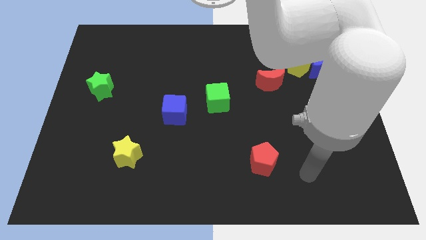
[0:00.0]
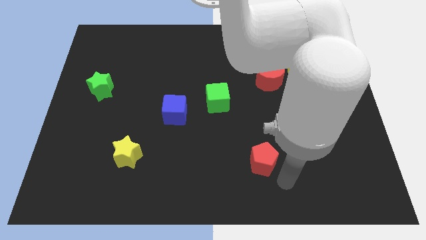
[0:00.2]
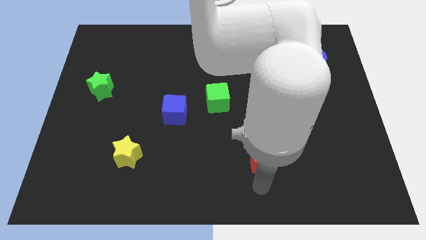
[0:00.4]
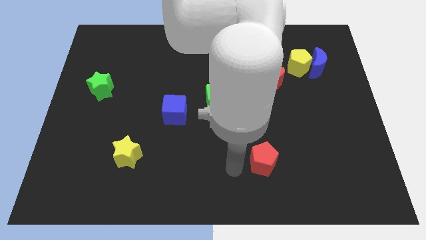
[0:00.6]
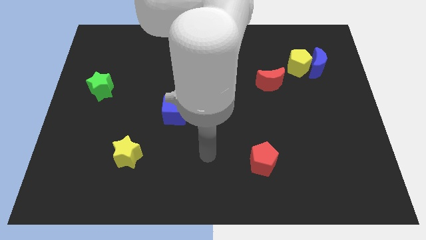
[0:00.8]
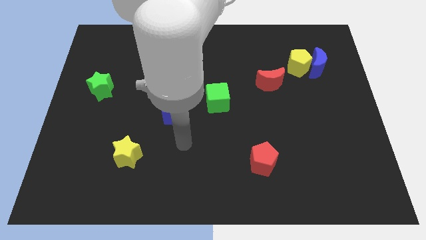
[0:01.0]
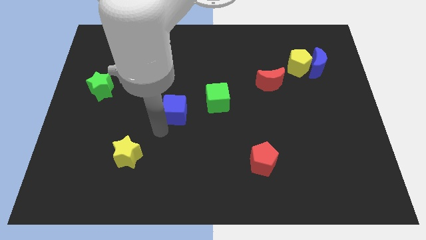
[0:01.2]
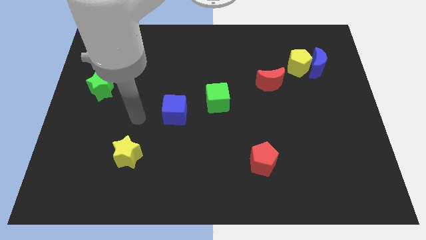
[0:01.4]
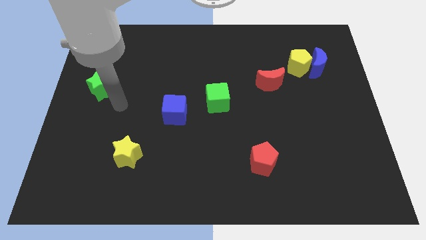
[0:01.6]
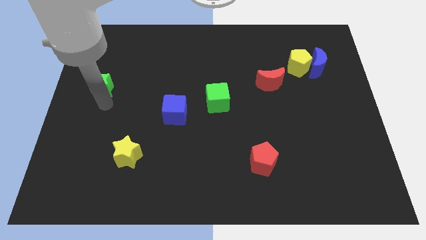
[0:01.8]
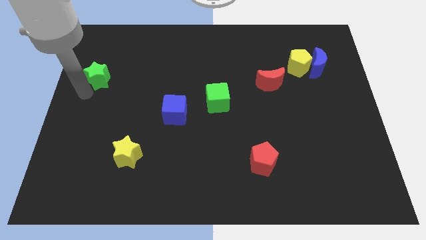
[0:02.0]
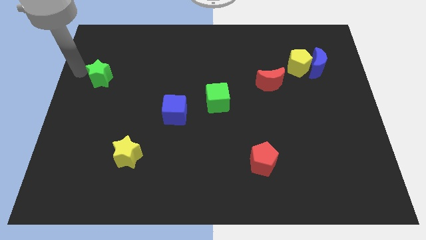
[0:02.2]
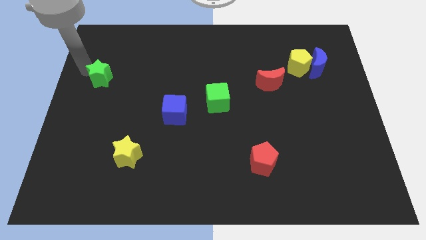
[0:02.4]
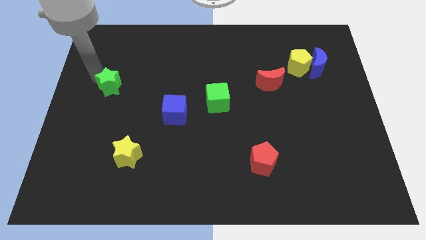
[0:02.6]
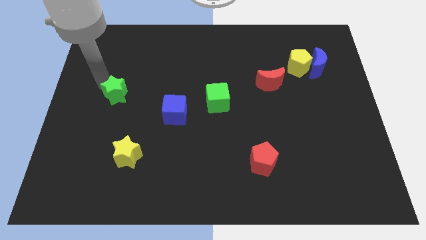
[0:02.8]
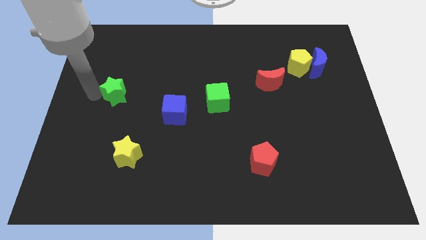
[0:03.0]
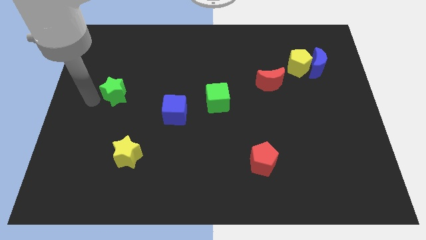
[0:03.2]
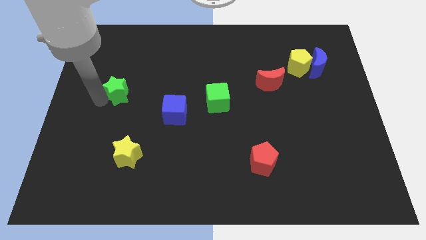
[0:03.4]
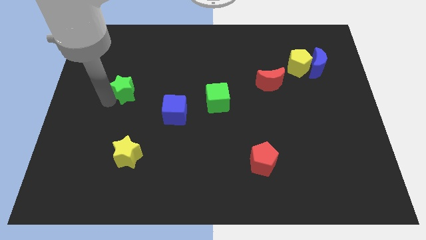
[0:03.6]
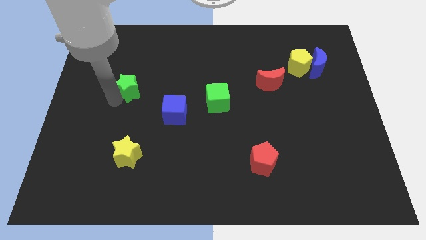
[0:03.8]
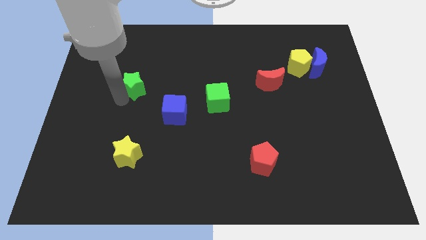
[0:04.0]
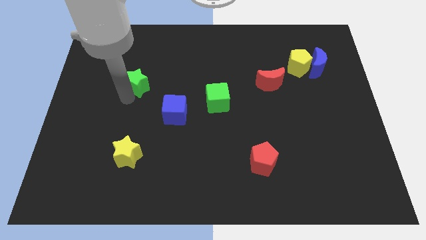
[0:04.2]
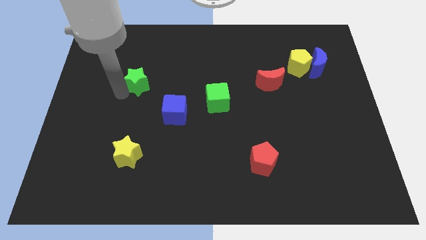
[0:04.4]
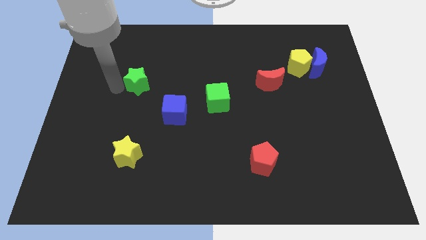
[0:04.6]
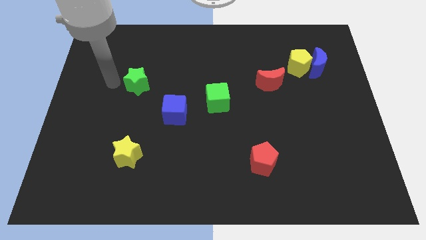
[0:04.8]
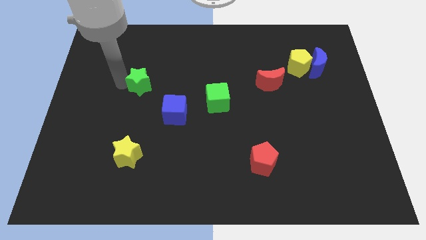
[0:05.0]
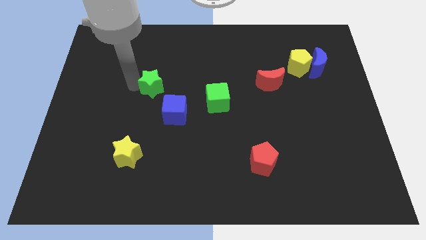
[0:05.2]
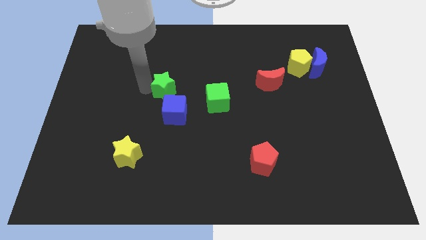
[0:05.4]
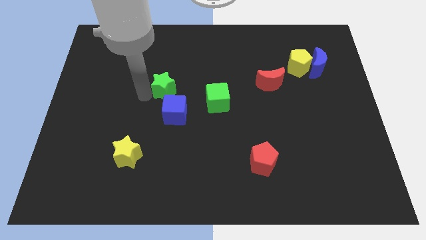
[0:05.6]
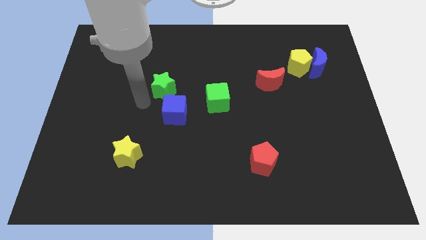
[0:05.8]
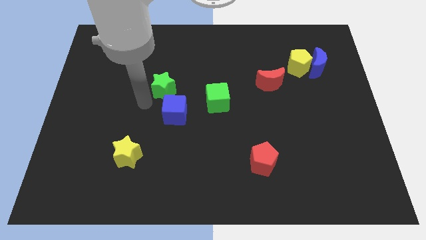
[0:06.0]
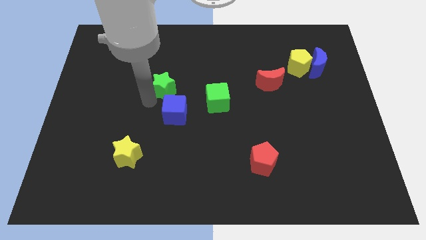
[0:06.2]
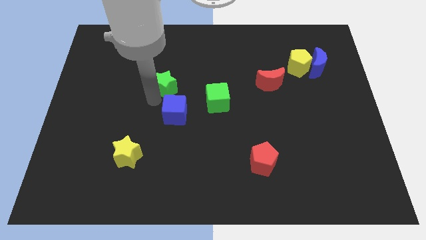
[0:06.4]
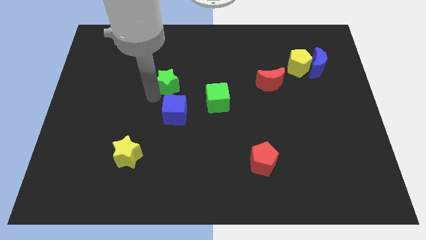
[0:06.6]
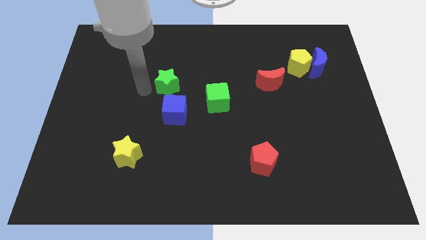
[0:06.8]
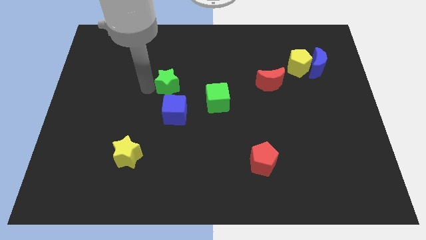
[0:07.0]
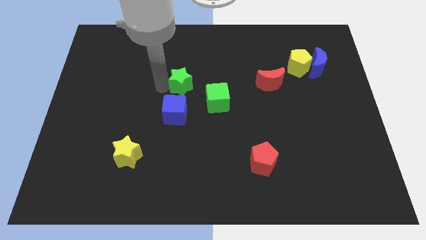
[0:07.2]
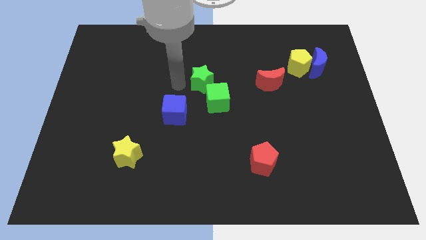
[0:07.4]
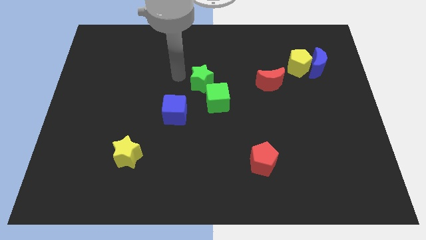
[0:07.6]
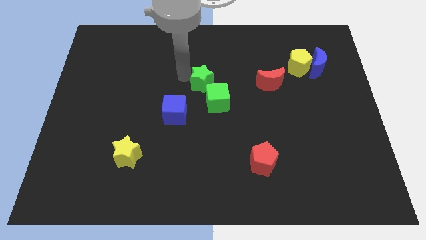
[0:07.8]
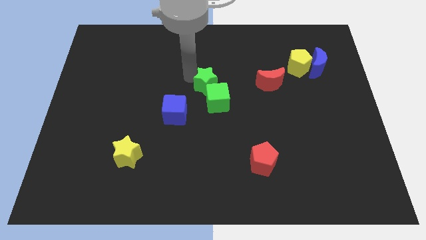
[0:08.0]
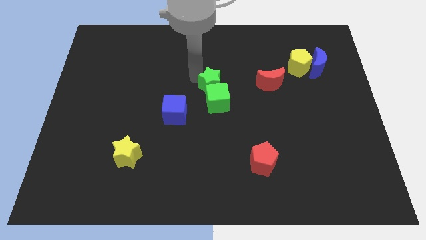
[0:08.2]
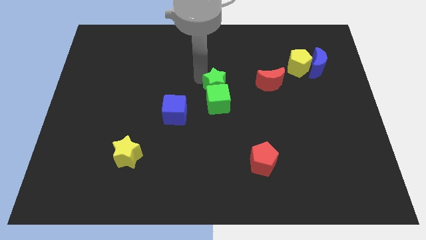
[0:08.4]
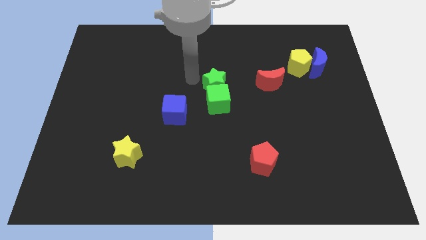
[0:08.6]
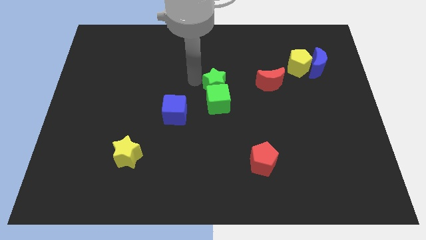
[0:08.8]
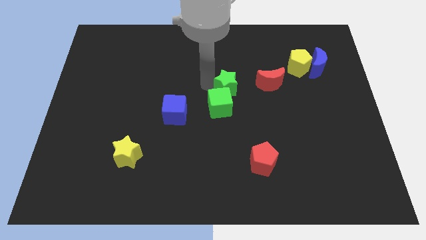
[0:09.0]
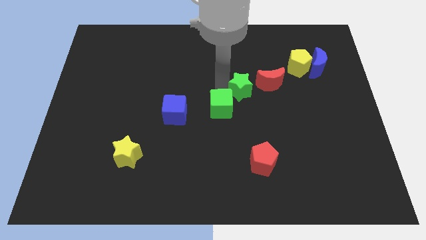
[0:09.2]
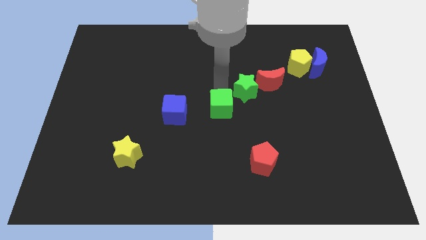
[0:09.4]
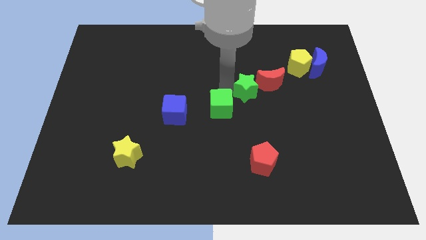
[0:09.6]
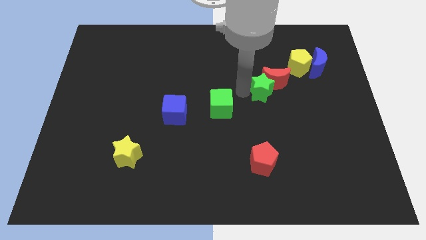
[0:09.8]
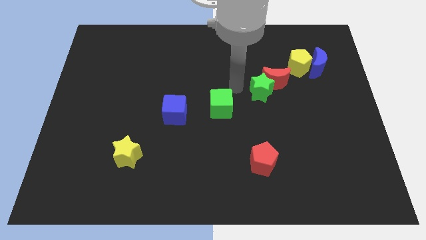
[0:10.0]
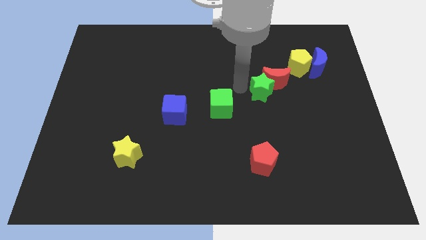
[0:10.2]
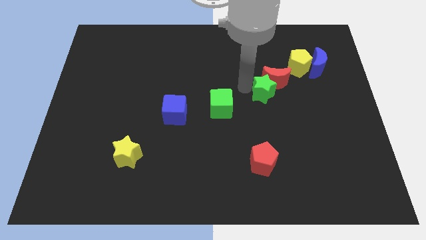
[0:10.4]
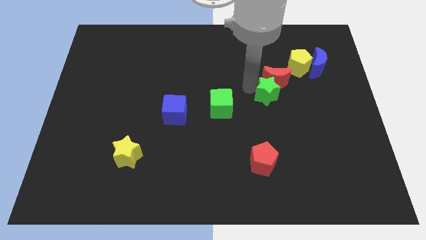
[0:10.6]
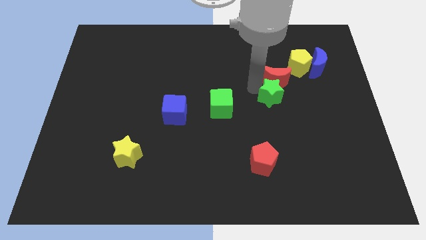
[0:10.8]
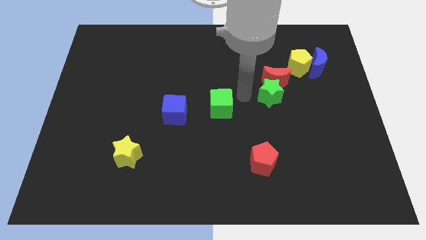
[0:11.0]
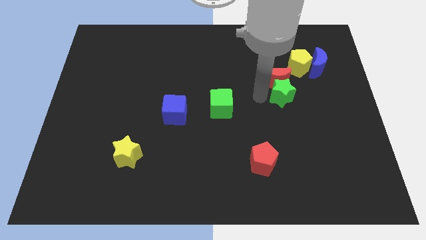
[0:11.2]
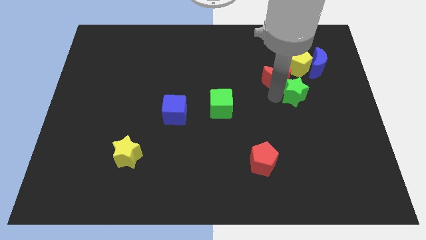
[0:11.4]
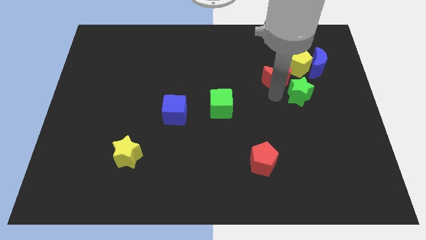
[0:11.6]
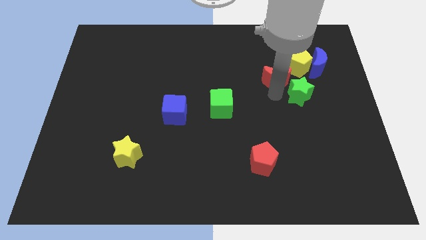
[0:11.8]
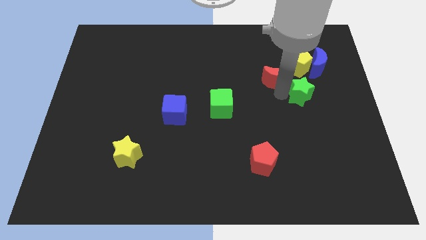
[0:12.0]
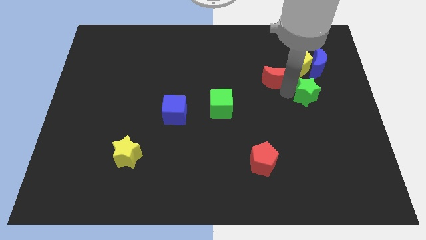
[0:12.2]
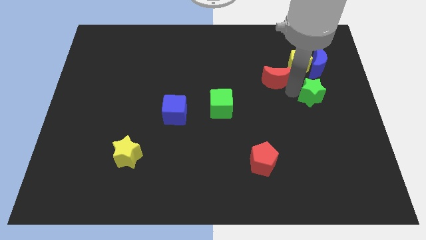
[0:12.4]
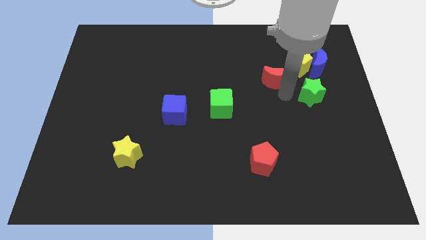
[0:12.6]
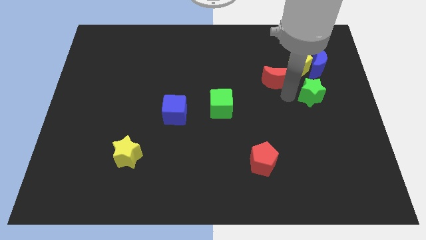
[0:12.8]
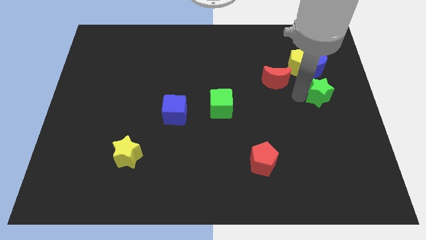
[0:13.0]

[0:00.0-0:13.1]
put the green star to the right side

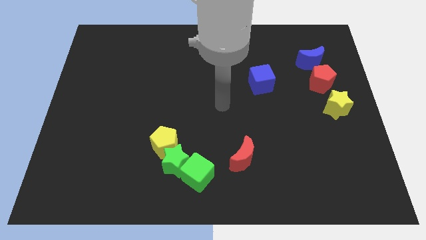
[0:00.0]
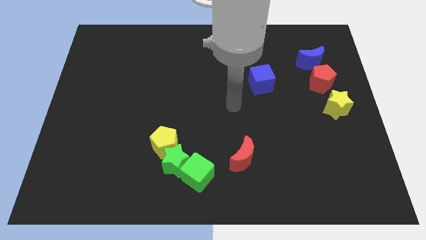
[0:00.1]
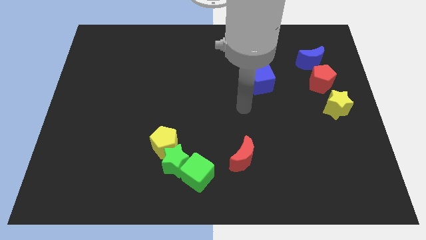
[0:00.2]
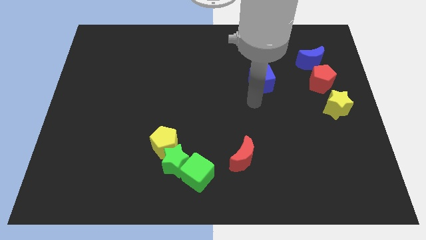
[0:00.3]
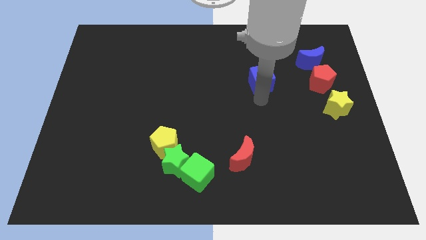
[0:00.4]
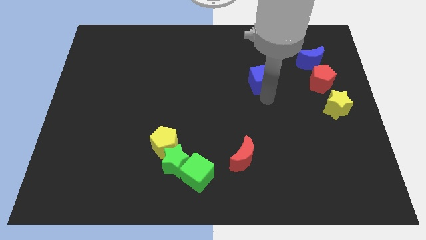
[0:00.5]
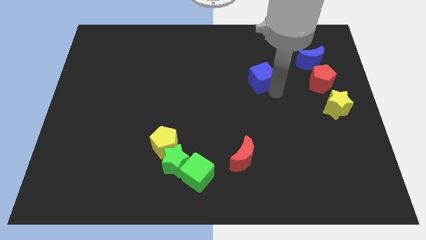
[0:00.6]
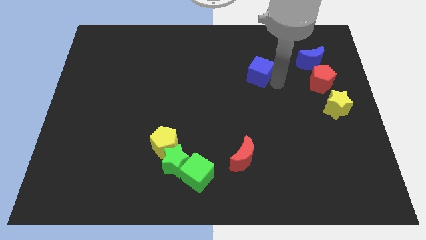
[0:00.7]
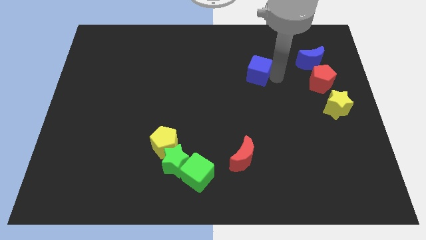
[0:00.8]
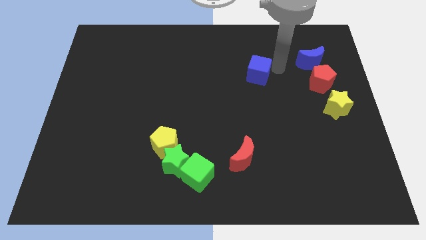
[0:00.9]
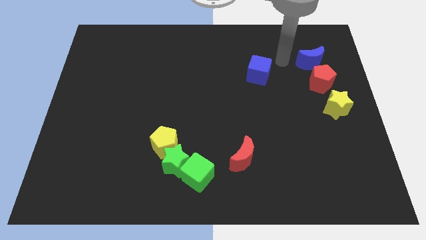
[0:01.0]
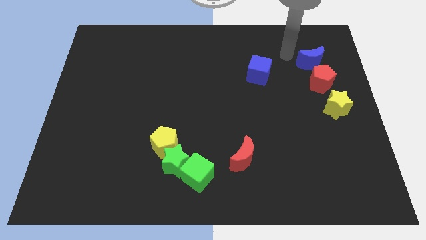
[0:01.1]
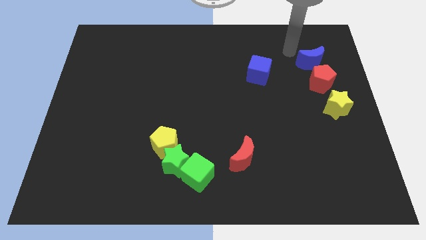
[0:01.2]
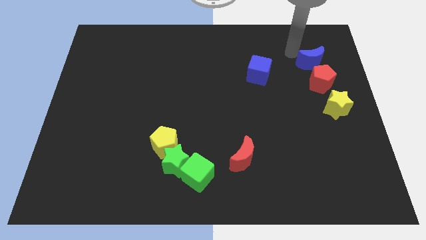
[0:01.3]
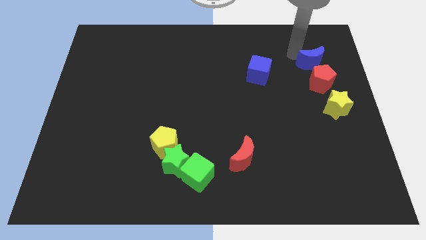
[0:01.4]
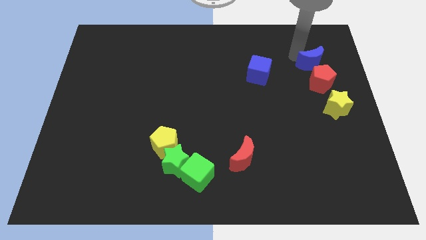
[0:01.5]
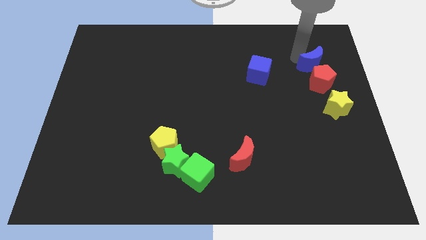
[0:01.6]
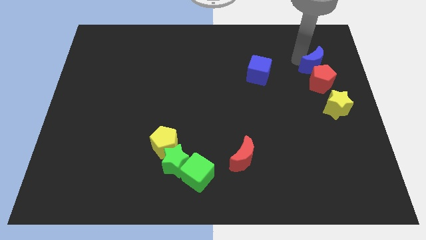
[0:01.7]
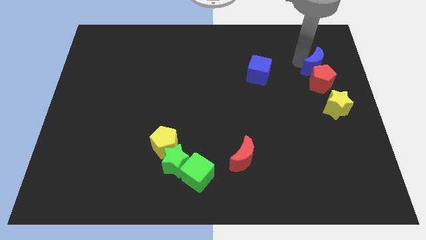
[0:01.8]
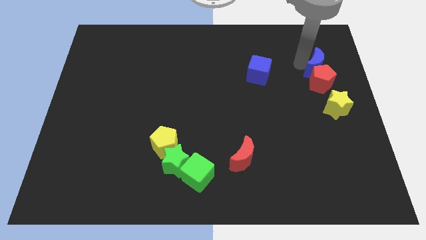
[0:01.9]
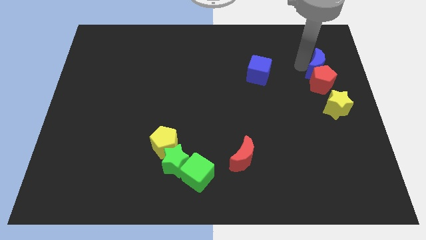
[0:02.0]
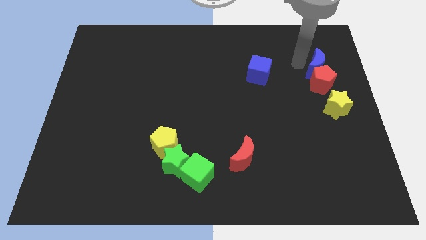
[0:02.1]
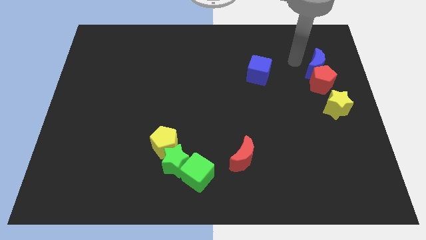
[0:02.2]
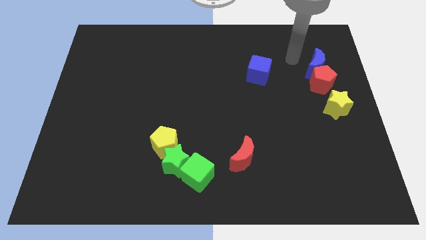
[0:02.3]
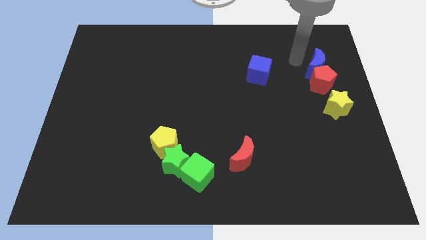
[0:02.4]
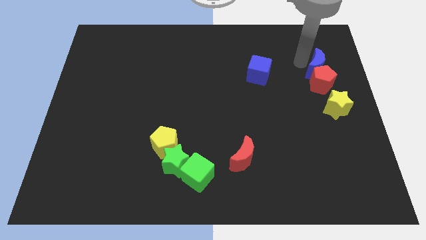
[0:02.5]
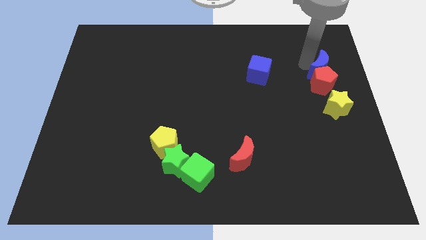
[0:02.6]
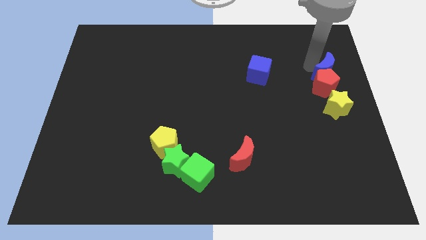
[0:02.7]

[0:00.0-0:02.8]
move the blue moon to the right side
